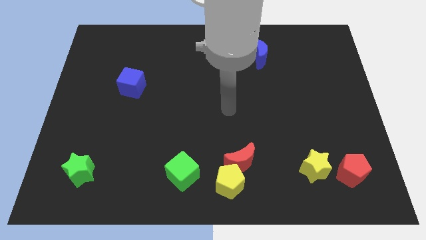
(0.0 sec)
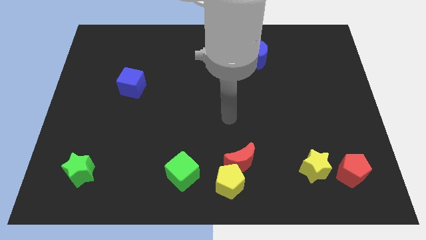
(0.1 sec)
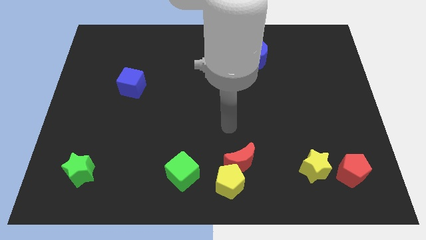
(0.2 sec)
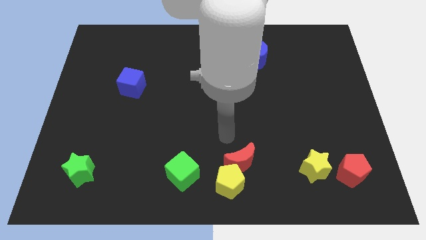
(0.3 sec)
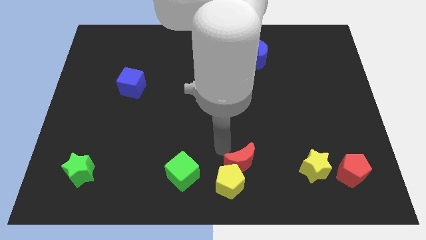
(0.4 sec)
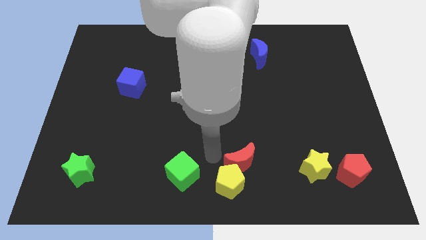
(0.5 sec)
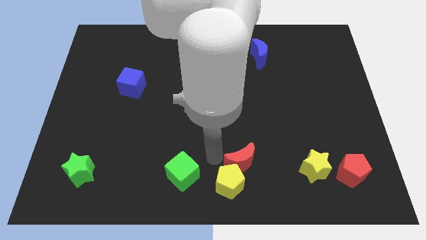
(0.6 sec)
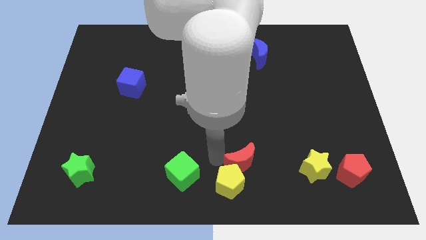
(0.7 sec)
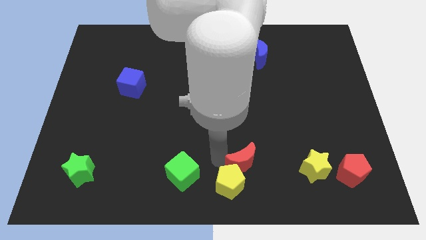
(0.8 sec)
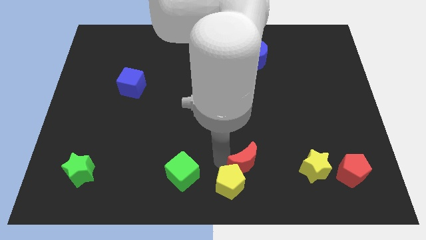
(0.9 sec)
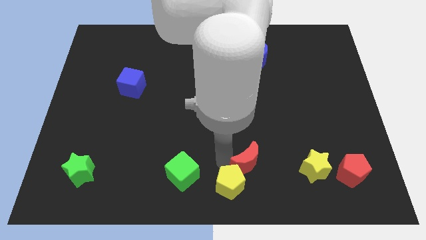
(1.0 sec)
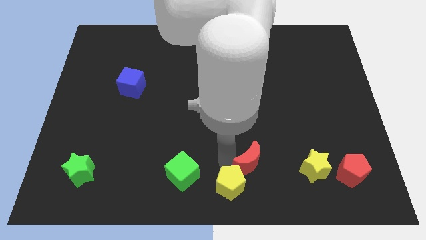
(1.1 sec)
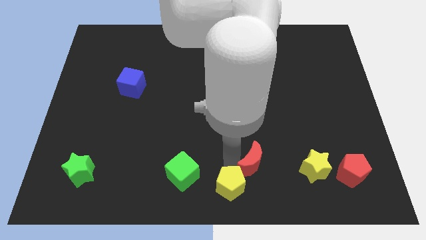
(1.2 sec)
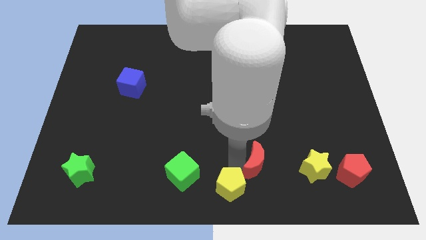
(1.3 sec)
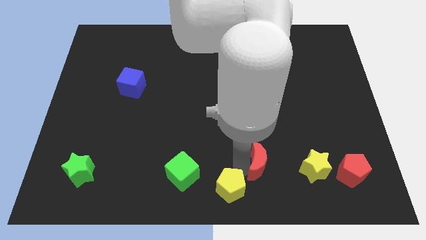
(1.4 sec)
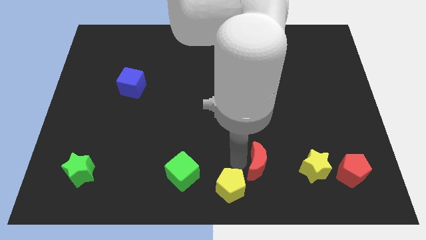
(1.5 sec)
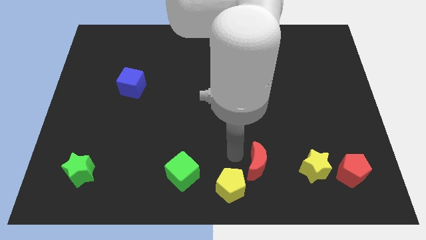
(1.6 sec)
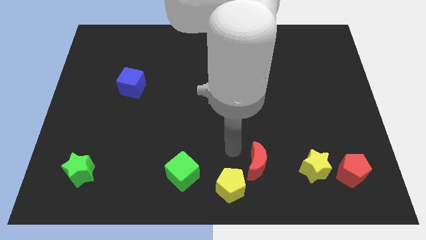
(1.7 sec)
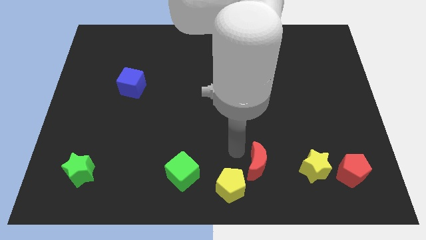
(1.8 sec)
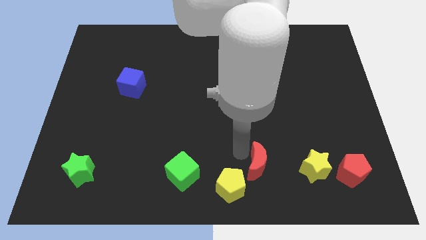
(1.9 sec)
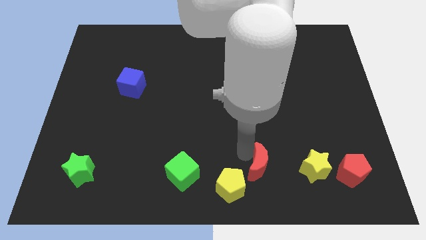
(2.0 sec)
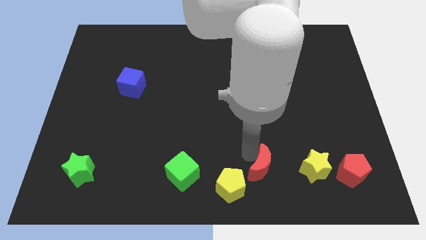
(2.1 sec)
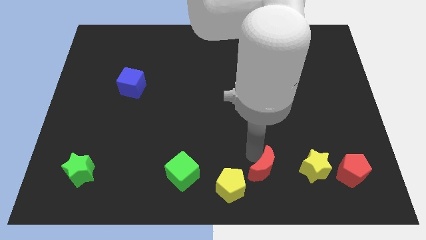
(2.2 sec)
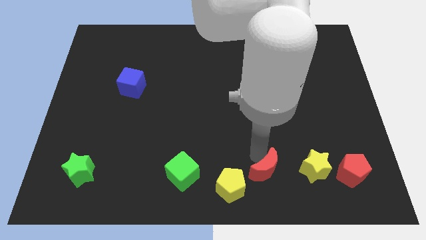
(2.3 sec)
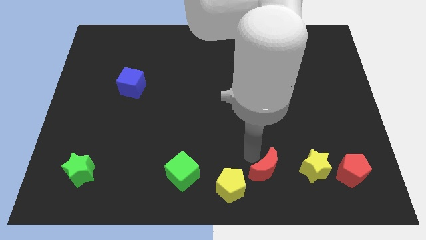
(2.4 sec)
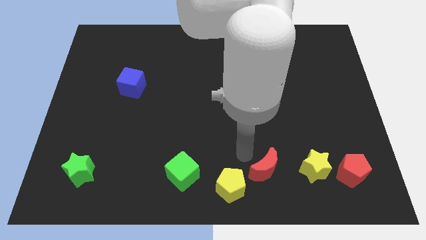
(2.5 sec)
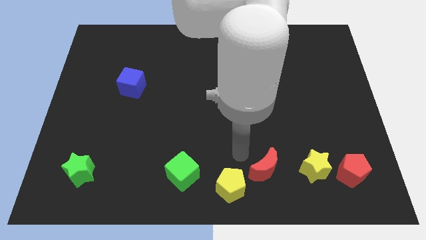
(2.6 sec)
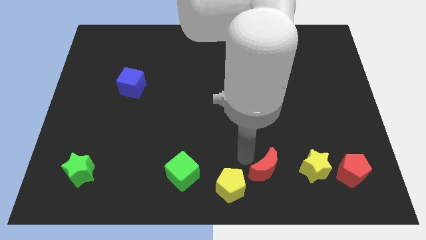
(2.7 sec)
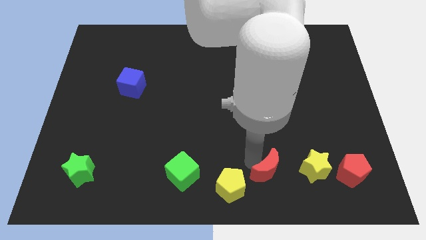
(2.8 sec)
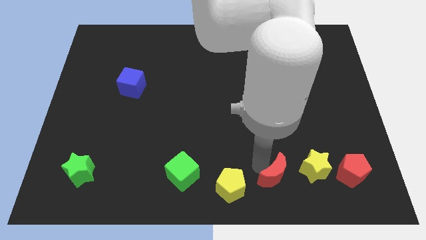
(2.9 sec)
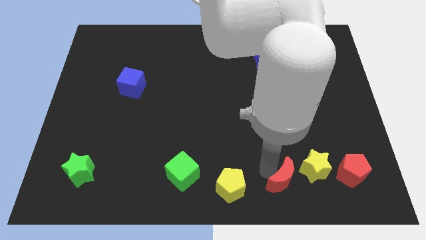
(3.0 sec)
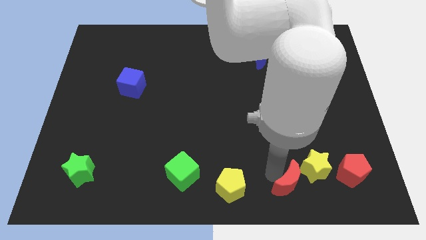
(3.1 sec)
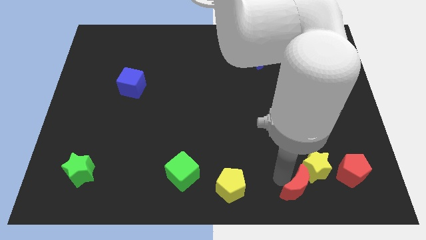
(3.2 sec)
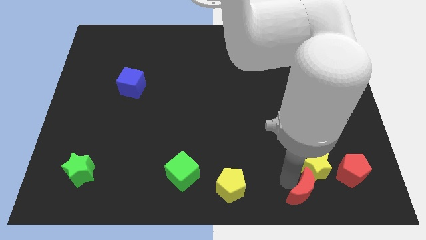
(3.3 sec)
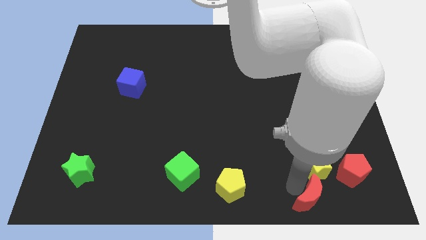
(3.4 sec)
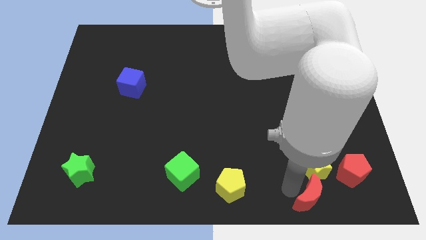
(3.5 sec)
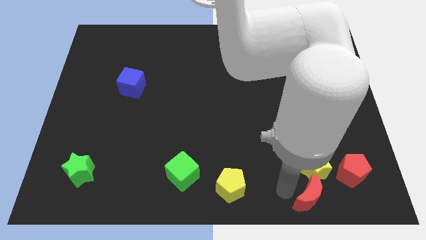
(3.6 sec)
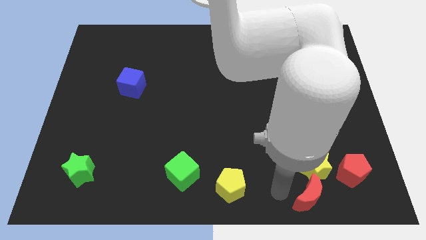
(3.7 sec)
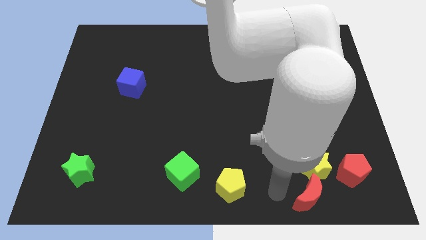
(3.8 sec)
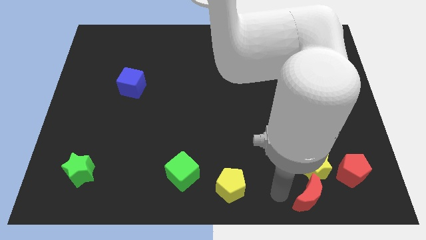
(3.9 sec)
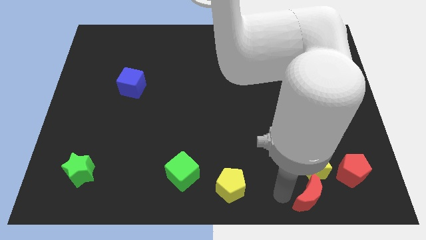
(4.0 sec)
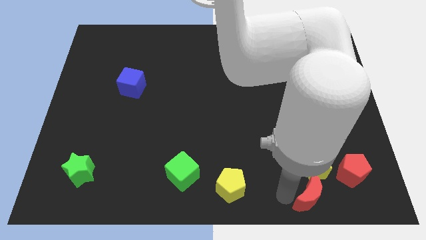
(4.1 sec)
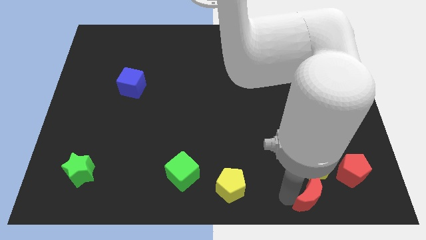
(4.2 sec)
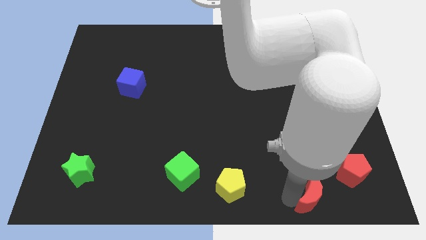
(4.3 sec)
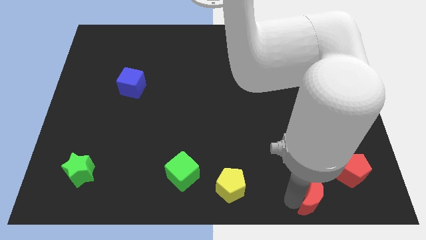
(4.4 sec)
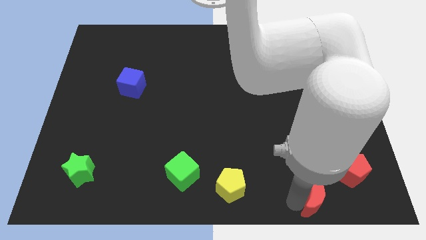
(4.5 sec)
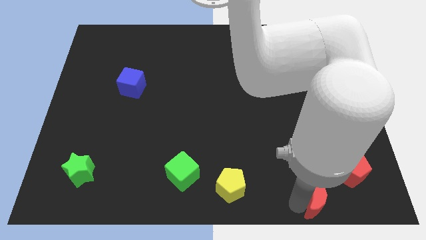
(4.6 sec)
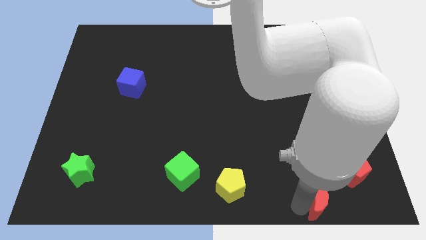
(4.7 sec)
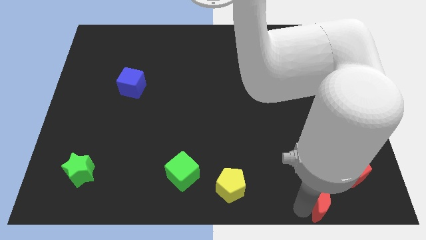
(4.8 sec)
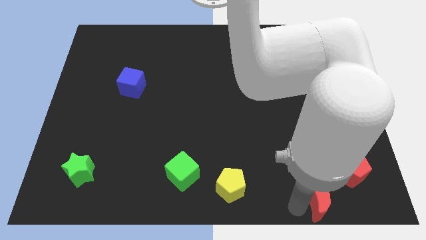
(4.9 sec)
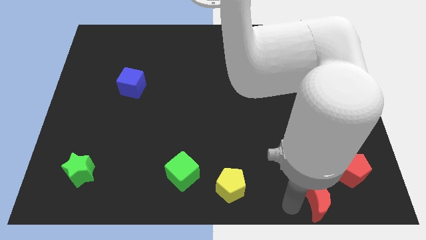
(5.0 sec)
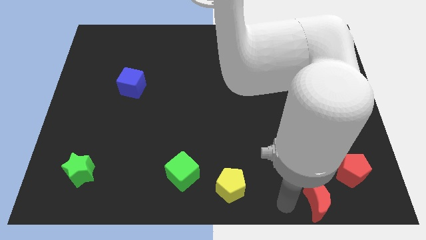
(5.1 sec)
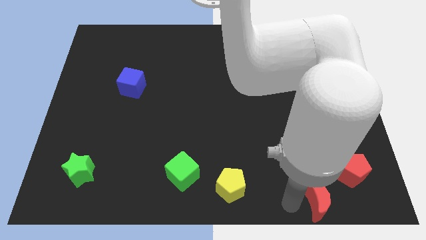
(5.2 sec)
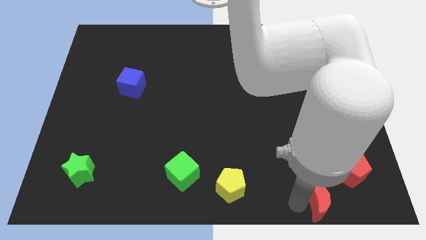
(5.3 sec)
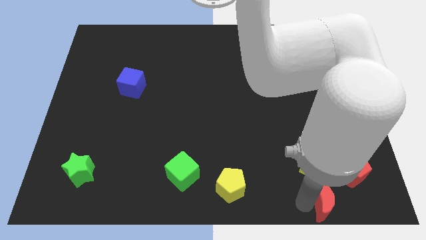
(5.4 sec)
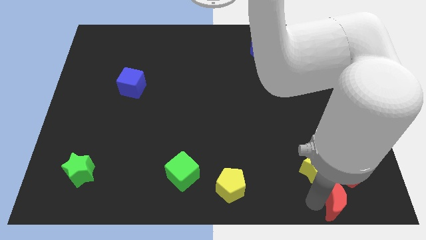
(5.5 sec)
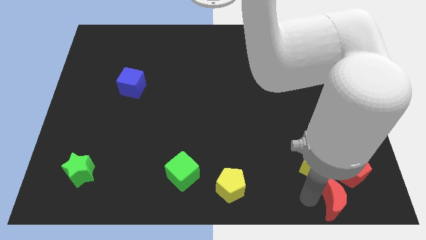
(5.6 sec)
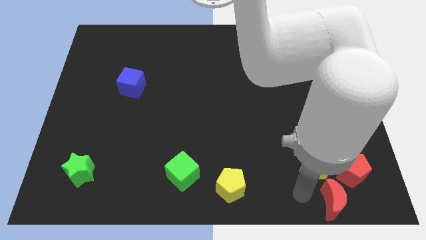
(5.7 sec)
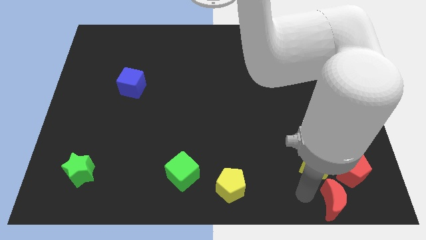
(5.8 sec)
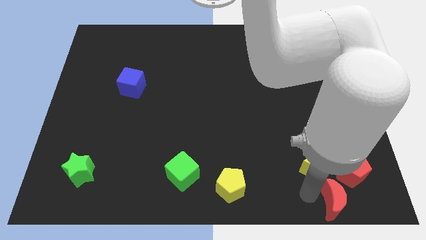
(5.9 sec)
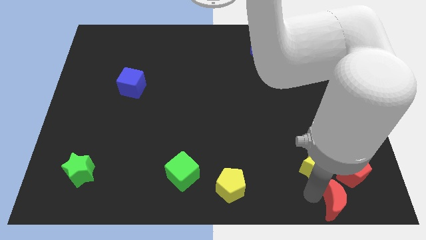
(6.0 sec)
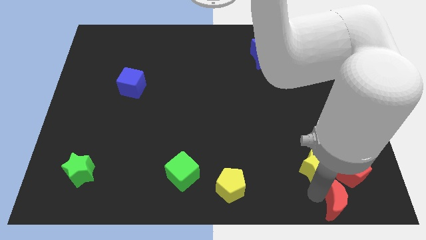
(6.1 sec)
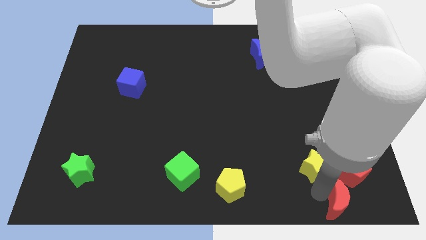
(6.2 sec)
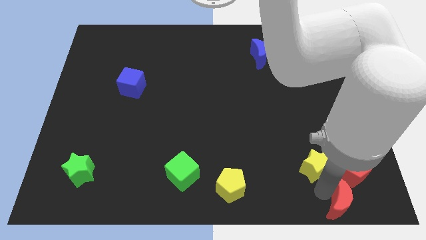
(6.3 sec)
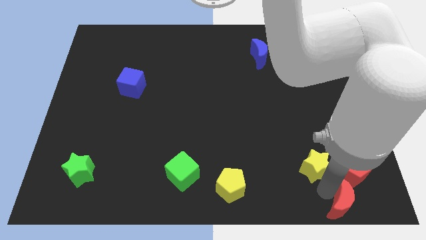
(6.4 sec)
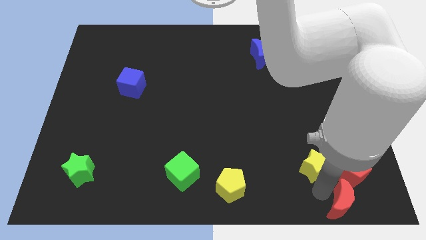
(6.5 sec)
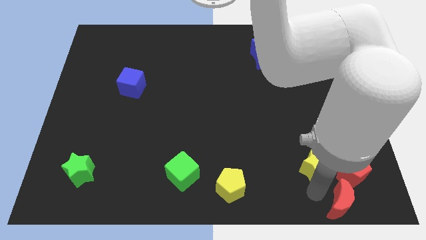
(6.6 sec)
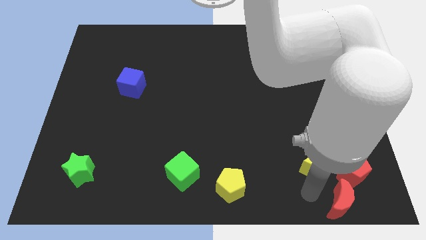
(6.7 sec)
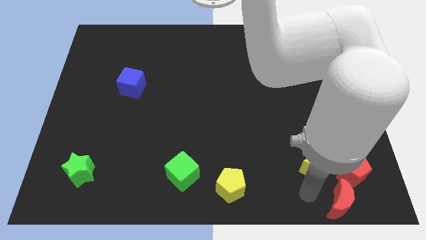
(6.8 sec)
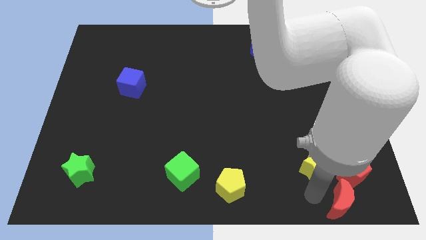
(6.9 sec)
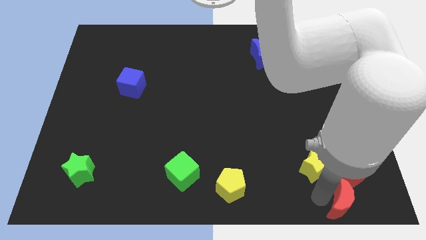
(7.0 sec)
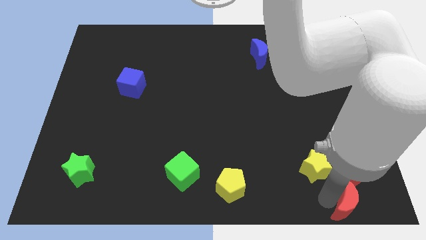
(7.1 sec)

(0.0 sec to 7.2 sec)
move the red moon to the bottom right

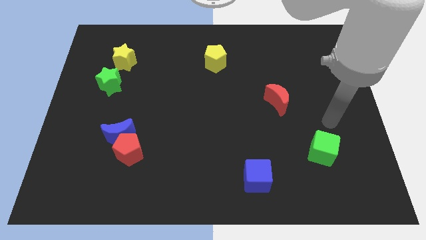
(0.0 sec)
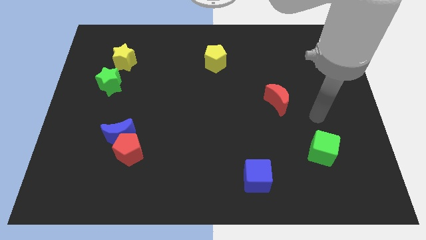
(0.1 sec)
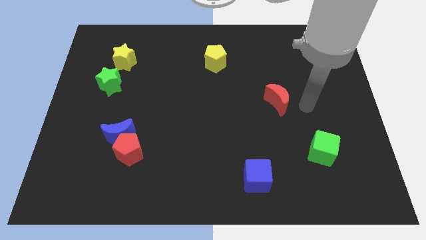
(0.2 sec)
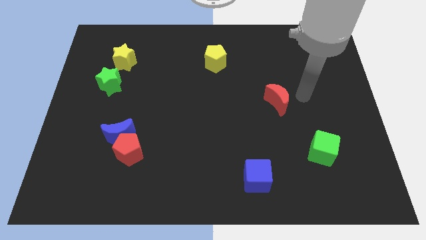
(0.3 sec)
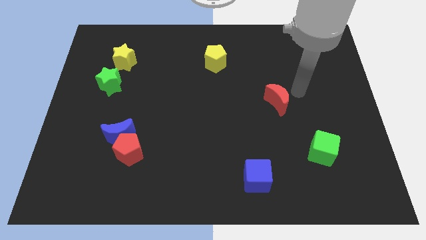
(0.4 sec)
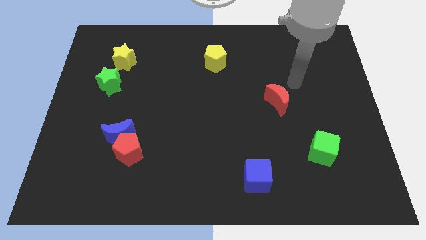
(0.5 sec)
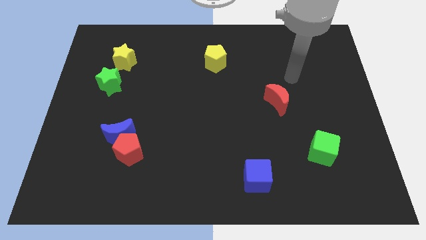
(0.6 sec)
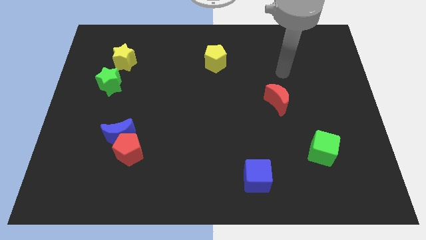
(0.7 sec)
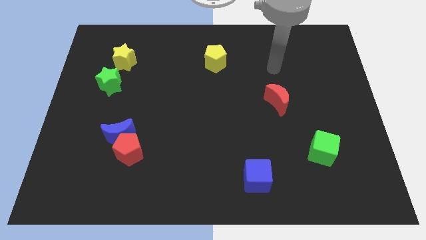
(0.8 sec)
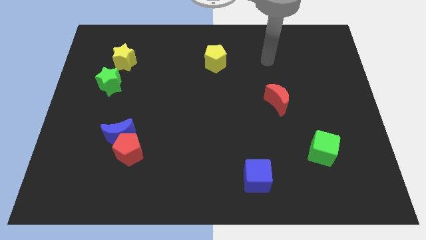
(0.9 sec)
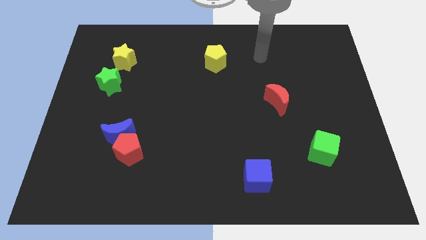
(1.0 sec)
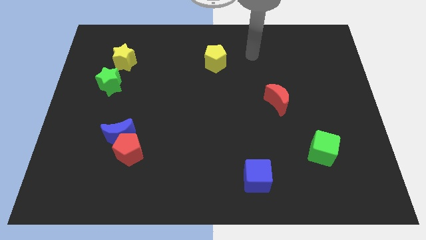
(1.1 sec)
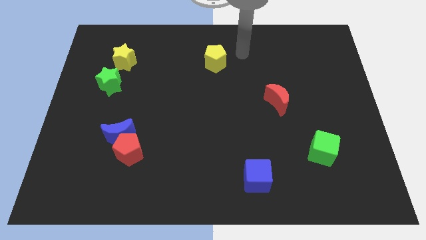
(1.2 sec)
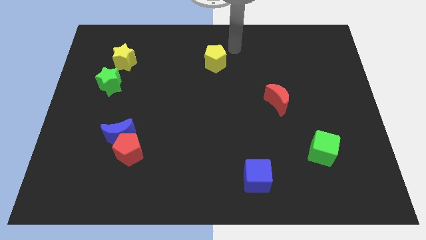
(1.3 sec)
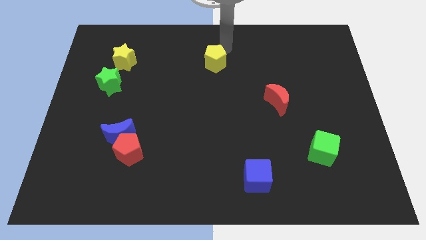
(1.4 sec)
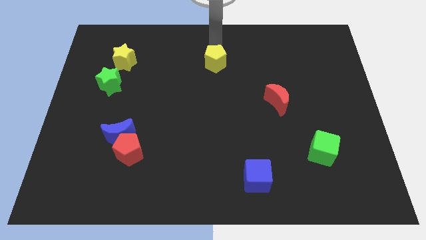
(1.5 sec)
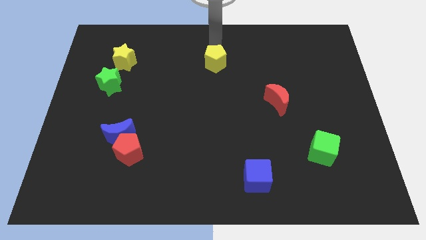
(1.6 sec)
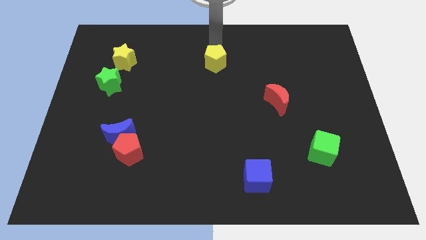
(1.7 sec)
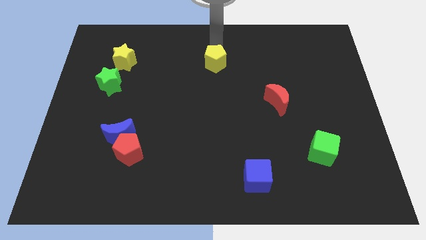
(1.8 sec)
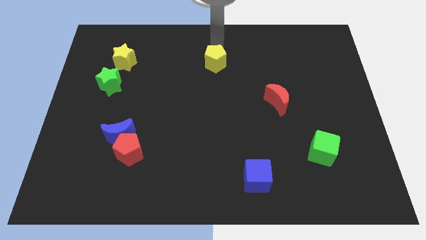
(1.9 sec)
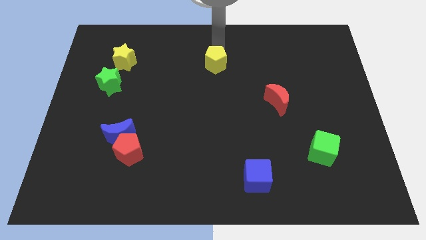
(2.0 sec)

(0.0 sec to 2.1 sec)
push the yellow pentagon to the center
